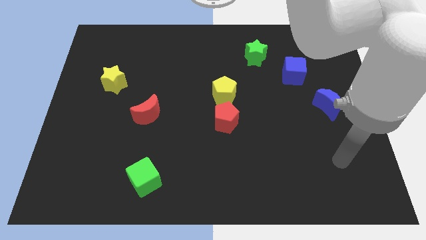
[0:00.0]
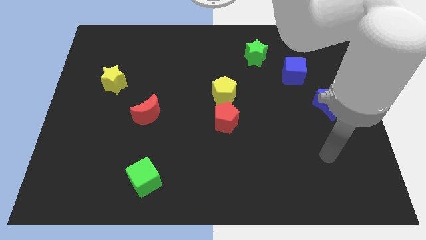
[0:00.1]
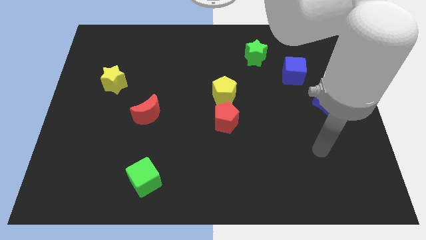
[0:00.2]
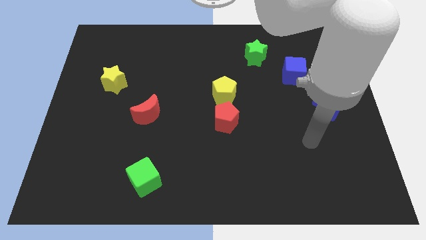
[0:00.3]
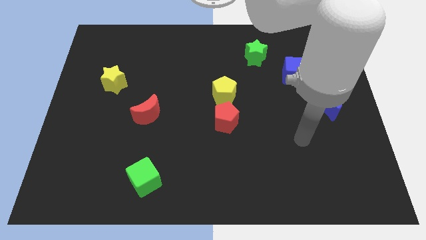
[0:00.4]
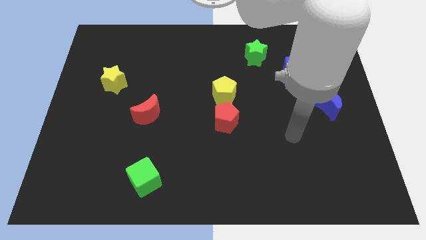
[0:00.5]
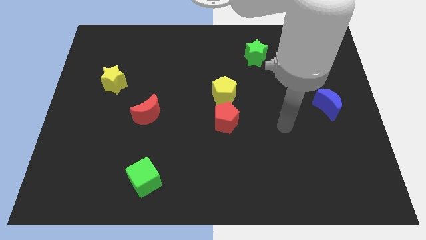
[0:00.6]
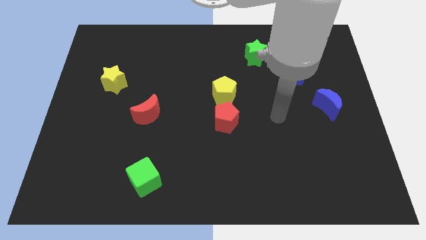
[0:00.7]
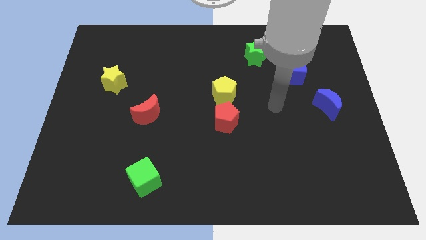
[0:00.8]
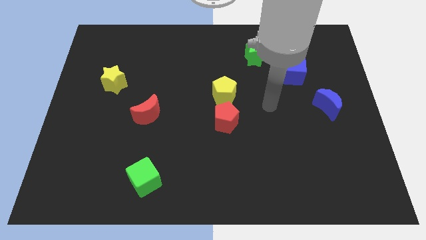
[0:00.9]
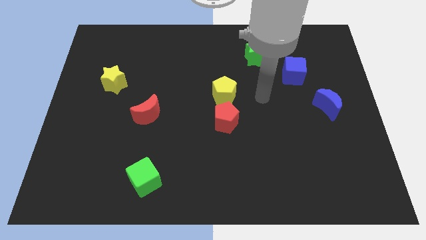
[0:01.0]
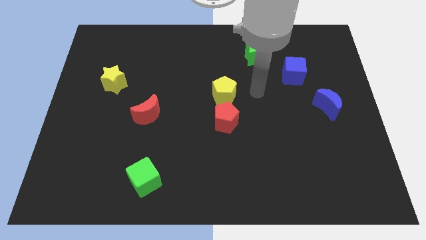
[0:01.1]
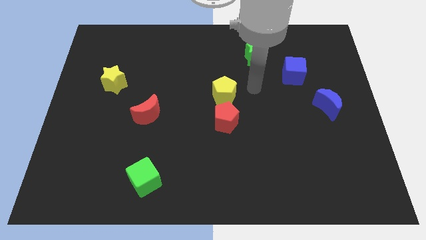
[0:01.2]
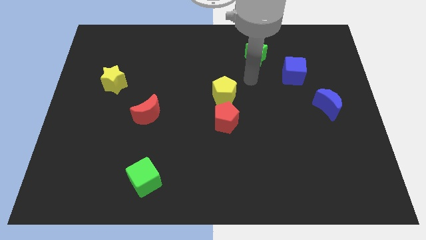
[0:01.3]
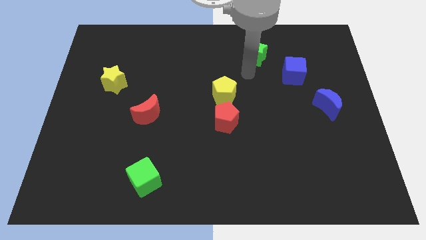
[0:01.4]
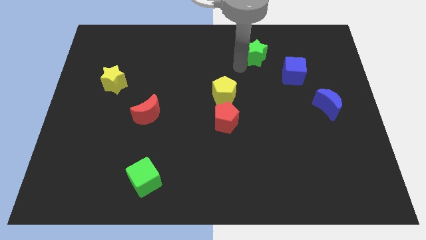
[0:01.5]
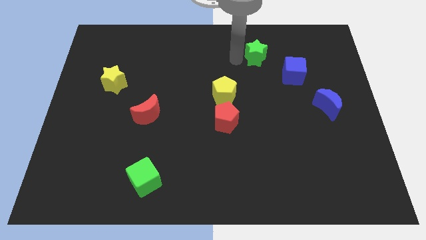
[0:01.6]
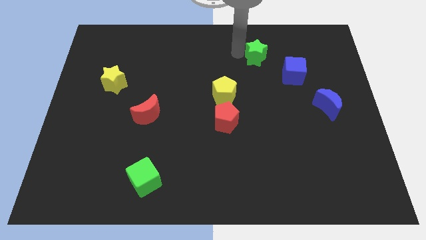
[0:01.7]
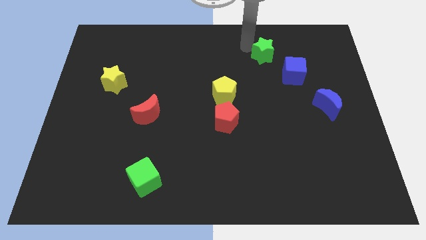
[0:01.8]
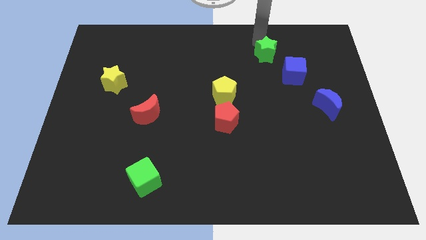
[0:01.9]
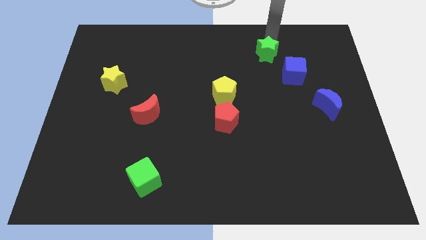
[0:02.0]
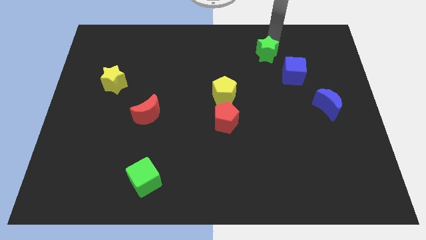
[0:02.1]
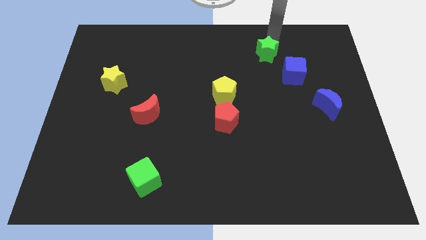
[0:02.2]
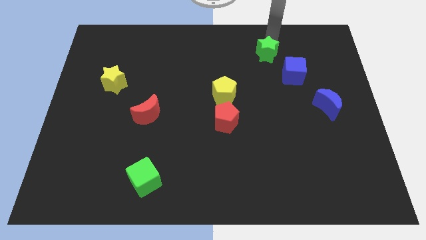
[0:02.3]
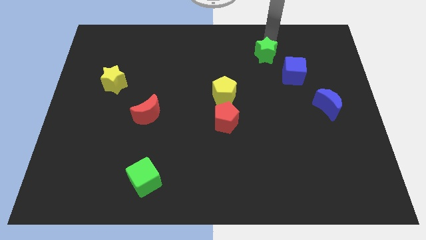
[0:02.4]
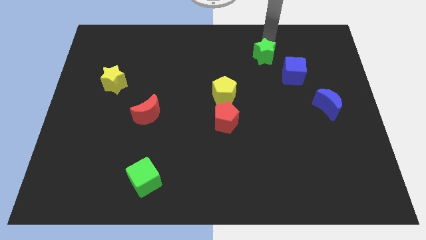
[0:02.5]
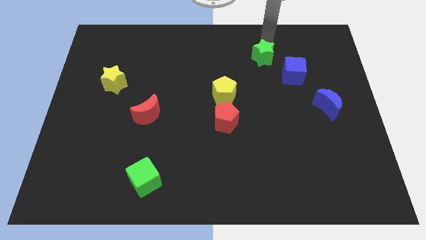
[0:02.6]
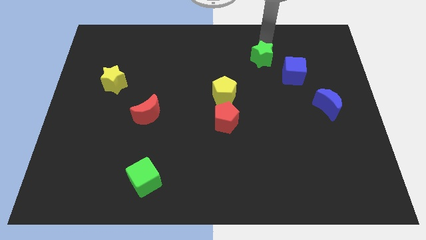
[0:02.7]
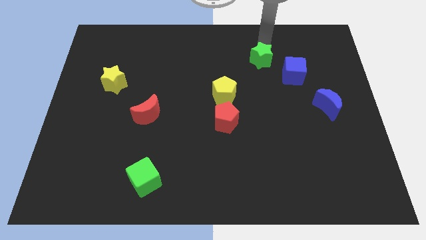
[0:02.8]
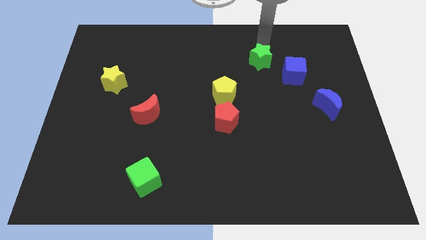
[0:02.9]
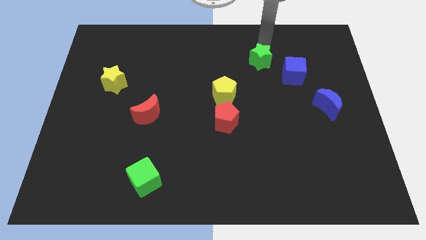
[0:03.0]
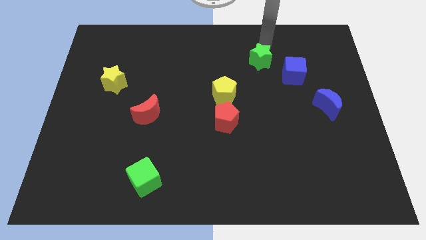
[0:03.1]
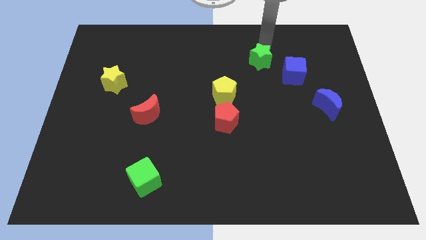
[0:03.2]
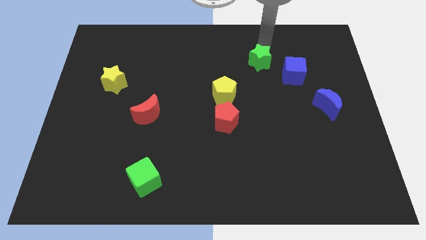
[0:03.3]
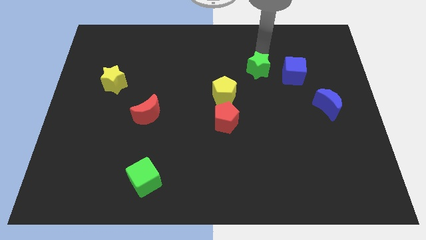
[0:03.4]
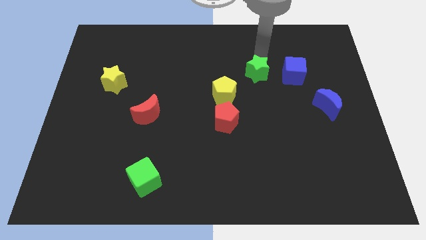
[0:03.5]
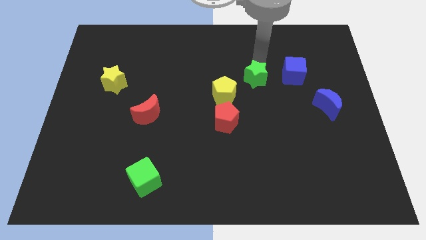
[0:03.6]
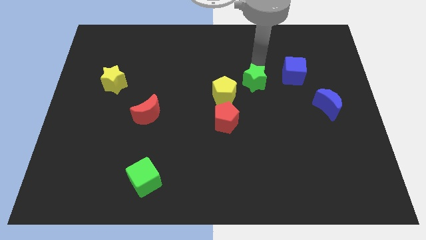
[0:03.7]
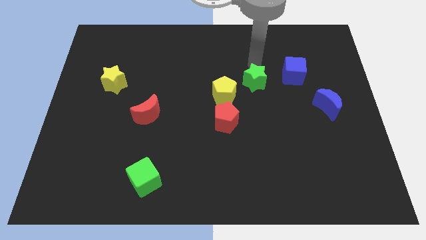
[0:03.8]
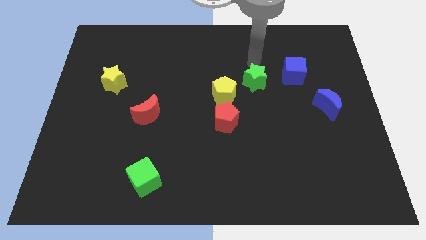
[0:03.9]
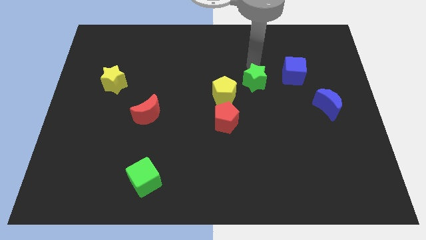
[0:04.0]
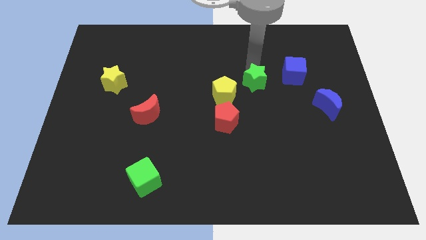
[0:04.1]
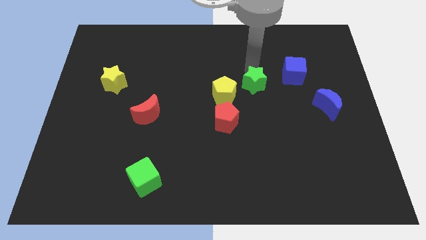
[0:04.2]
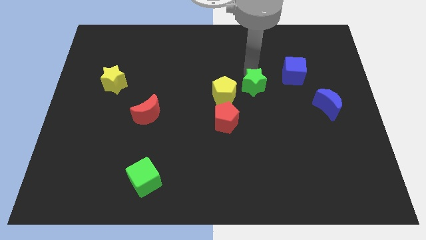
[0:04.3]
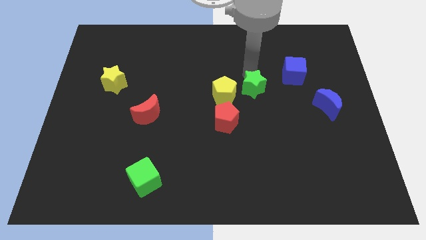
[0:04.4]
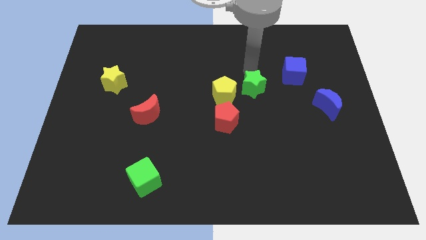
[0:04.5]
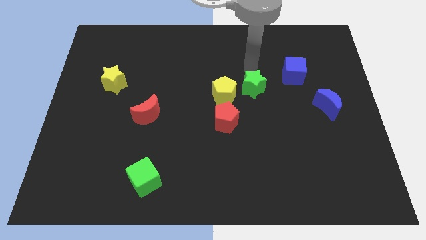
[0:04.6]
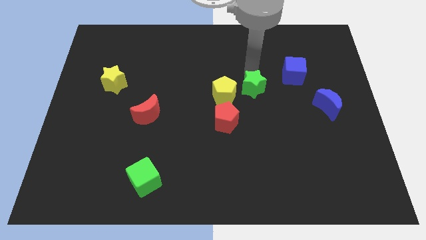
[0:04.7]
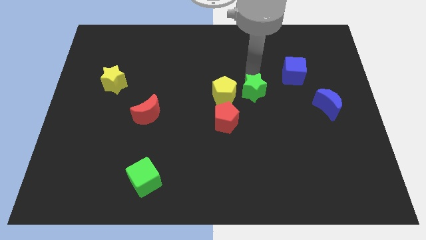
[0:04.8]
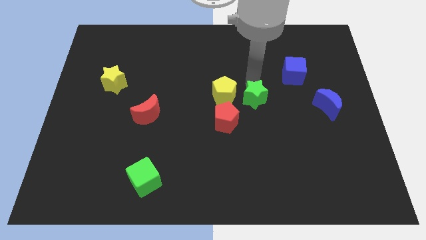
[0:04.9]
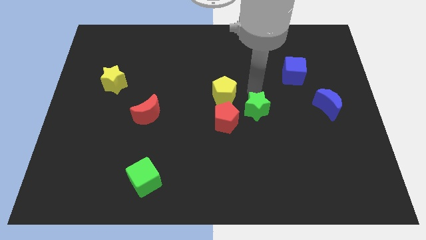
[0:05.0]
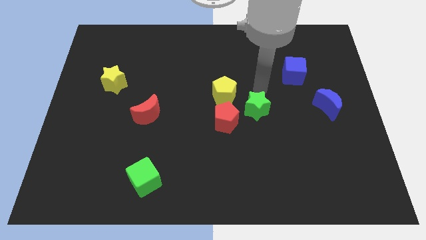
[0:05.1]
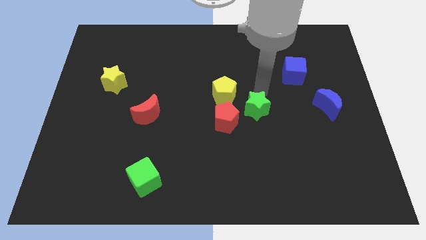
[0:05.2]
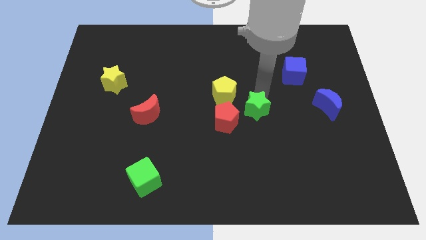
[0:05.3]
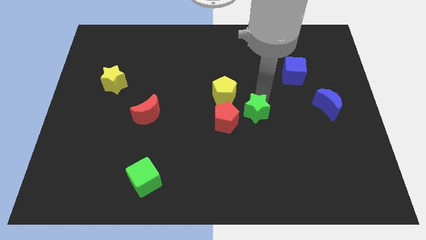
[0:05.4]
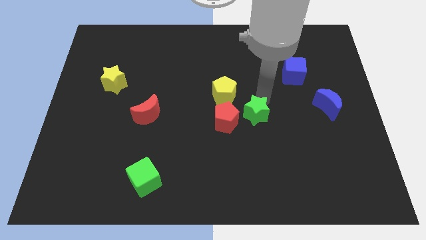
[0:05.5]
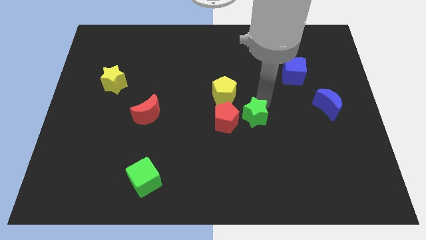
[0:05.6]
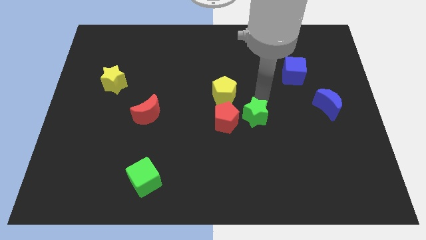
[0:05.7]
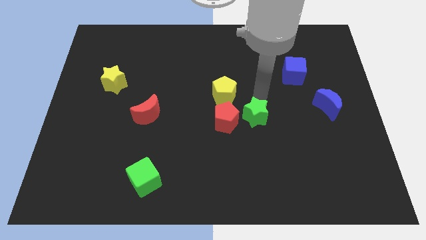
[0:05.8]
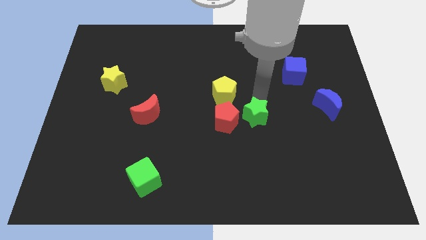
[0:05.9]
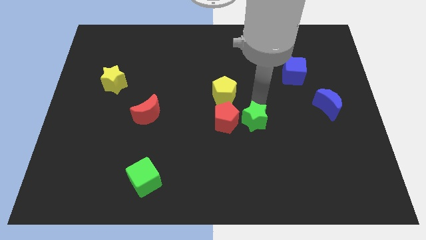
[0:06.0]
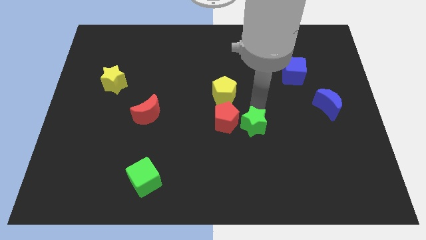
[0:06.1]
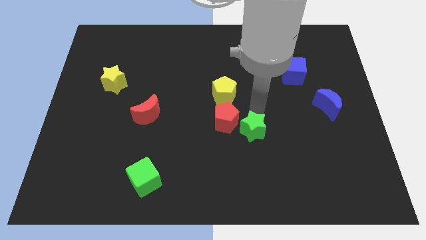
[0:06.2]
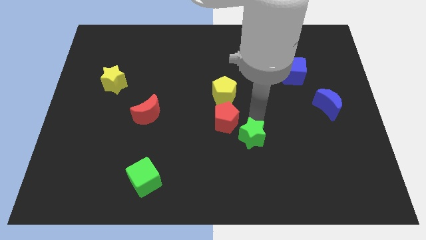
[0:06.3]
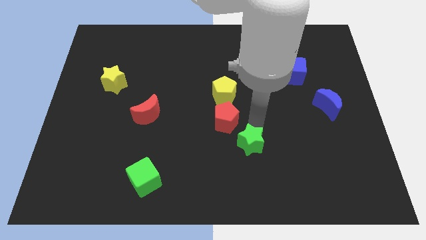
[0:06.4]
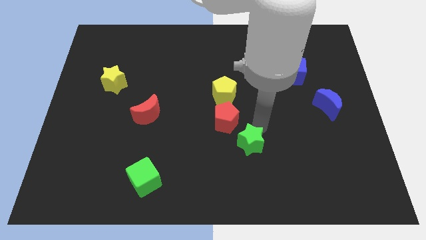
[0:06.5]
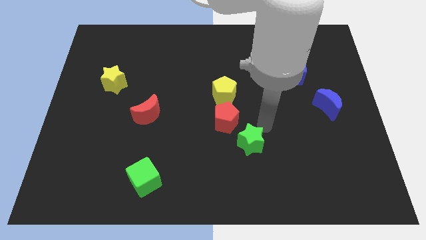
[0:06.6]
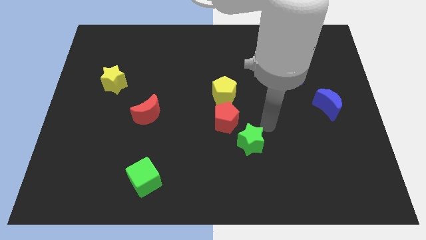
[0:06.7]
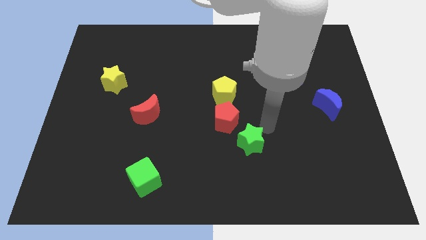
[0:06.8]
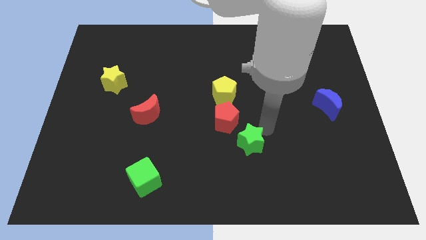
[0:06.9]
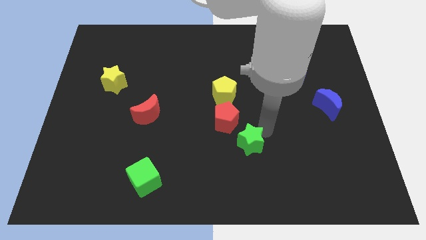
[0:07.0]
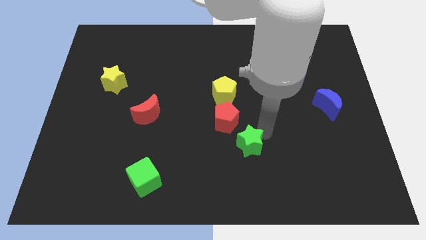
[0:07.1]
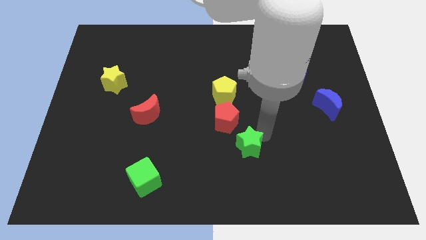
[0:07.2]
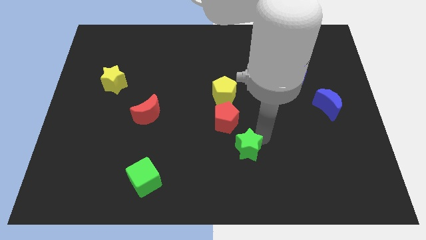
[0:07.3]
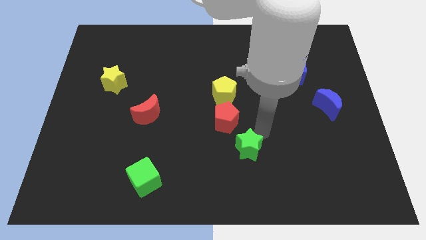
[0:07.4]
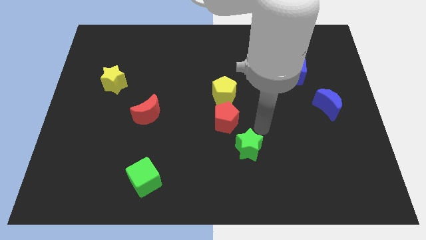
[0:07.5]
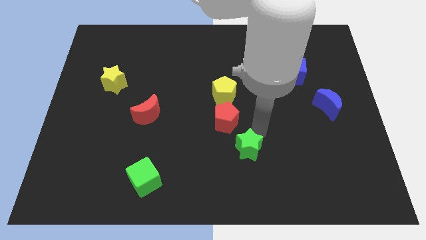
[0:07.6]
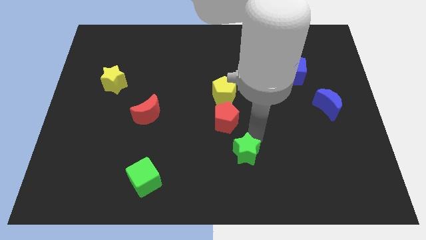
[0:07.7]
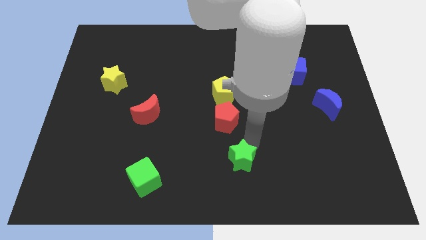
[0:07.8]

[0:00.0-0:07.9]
push the green star to the bottom
